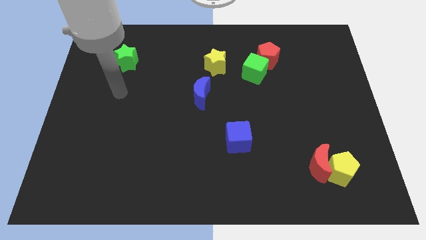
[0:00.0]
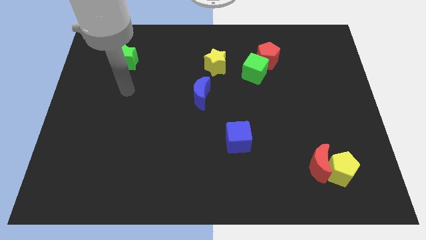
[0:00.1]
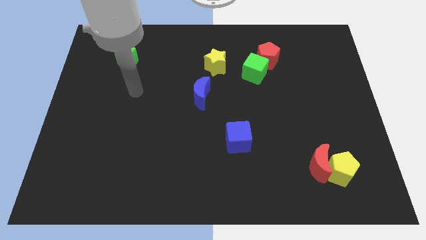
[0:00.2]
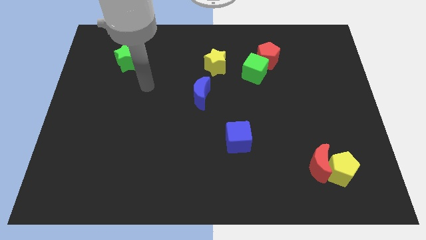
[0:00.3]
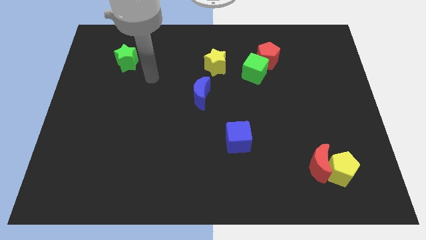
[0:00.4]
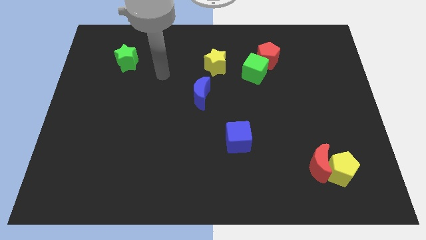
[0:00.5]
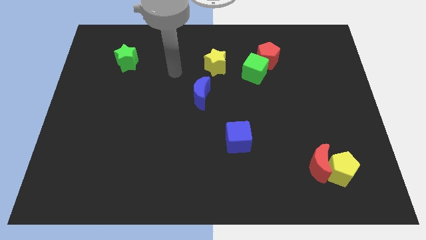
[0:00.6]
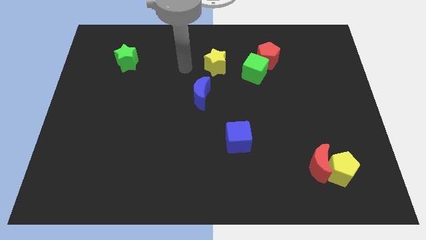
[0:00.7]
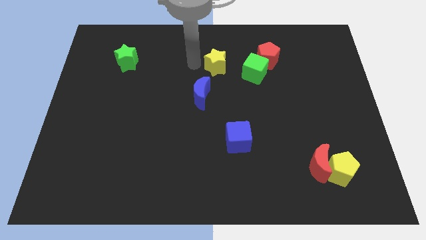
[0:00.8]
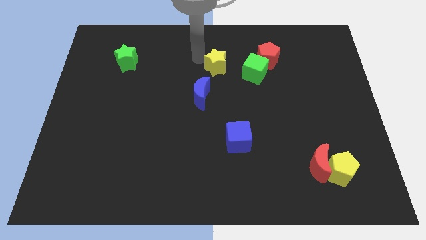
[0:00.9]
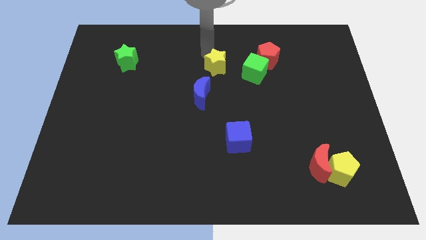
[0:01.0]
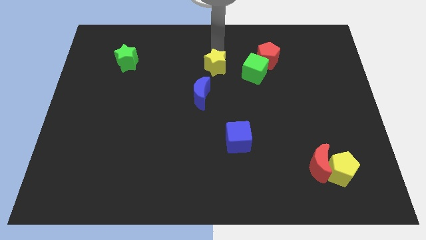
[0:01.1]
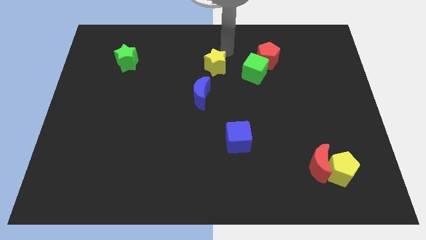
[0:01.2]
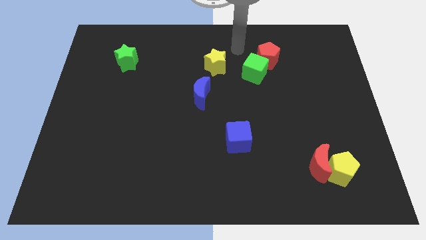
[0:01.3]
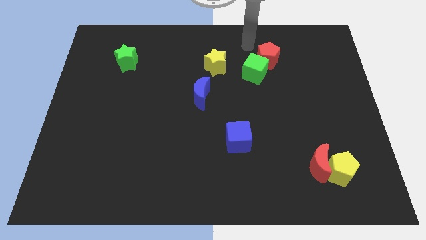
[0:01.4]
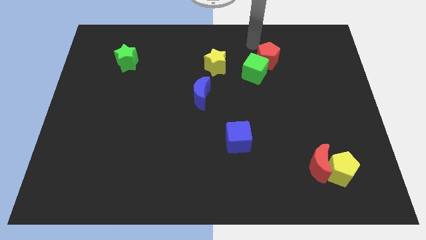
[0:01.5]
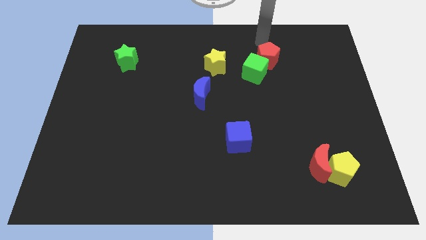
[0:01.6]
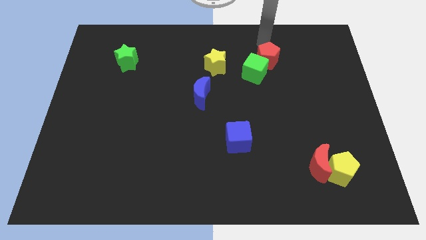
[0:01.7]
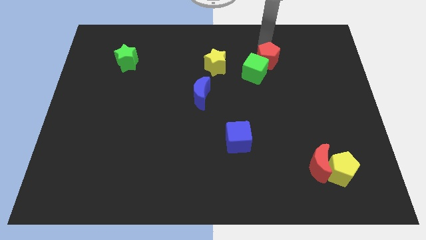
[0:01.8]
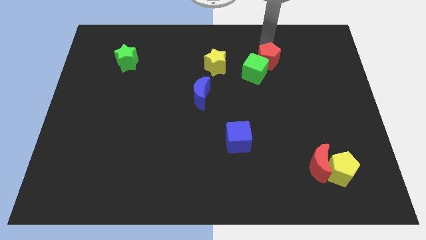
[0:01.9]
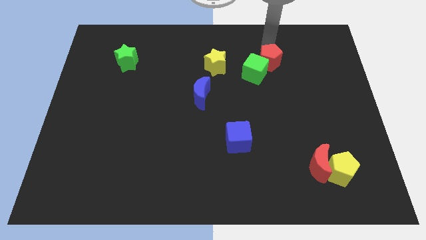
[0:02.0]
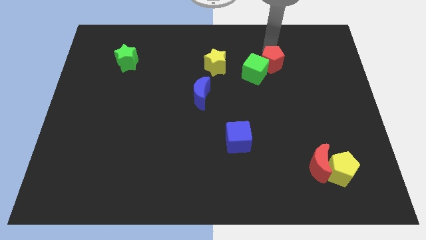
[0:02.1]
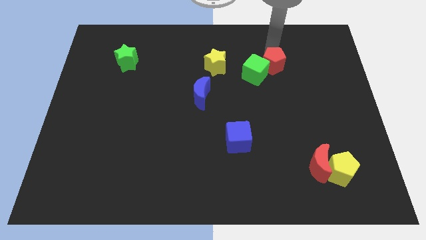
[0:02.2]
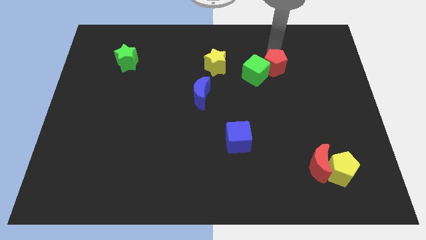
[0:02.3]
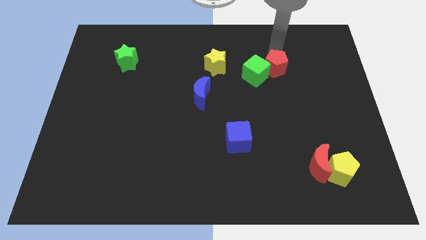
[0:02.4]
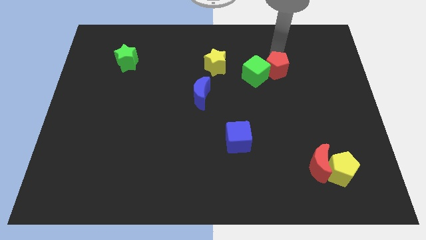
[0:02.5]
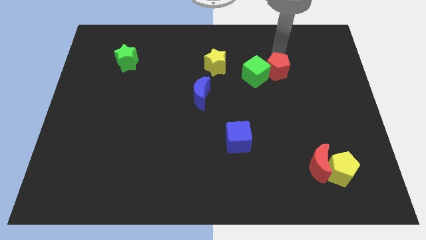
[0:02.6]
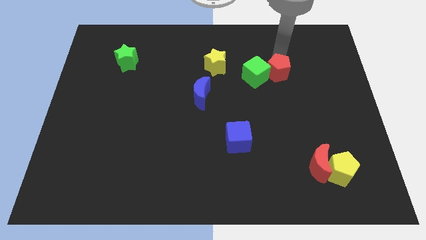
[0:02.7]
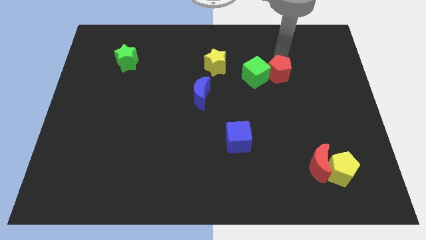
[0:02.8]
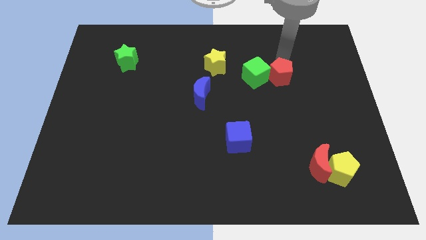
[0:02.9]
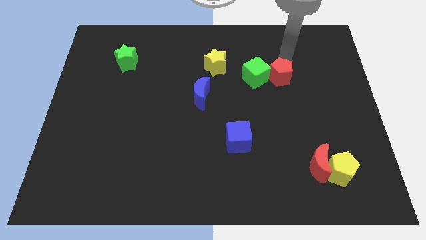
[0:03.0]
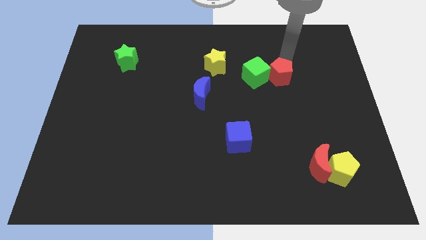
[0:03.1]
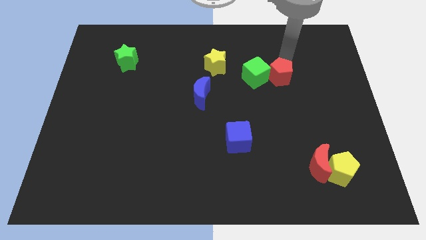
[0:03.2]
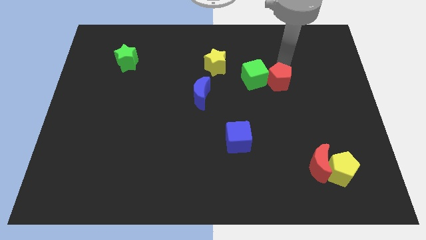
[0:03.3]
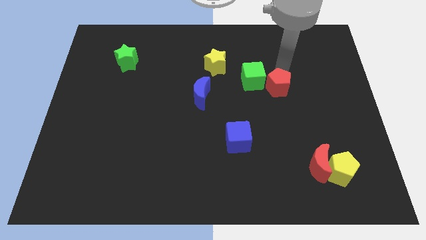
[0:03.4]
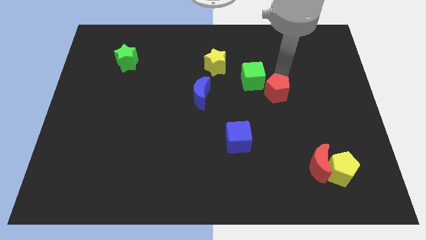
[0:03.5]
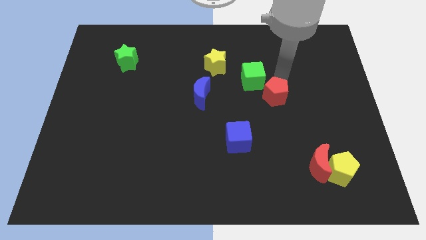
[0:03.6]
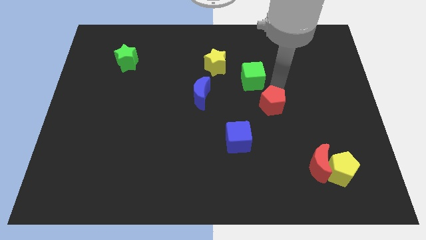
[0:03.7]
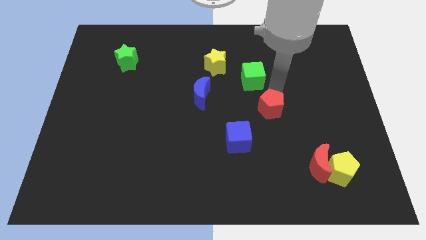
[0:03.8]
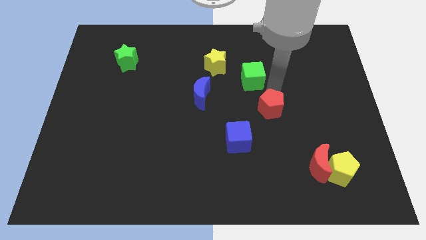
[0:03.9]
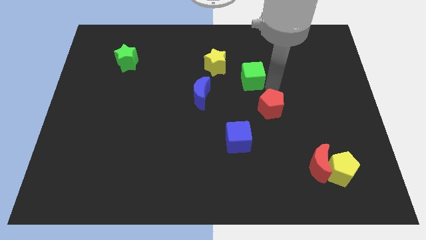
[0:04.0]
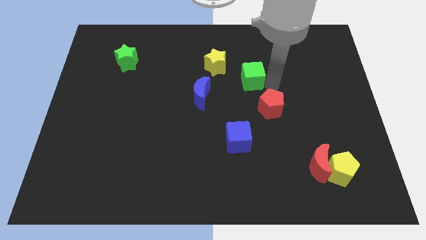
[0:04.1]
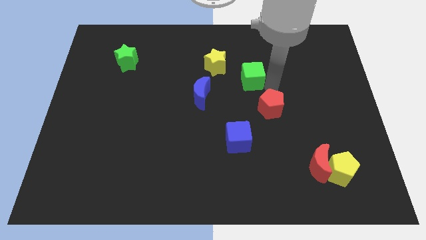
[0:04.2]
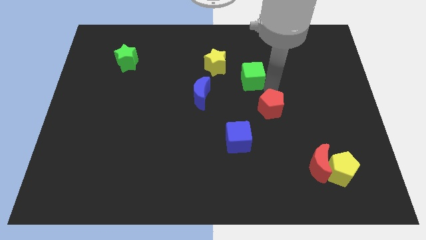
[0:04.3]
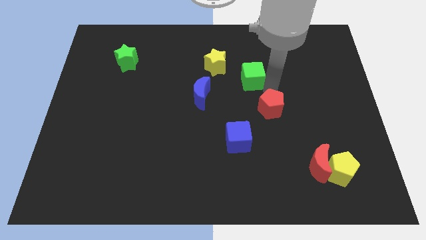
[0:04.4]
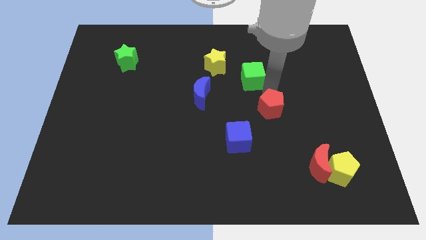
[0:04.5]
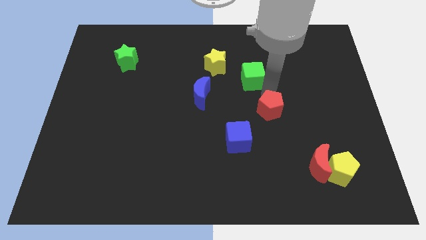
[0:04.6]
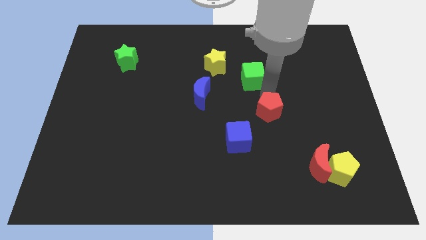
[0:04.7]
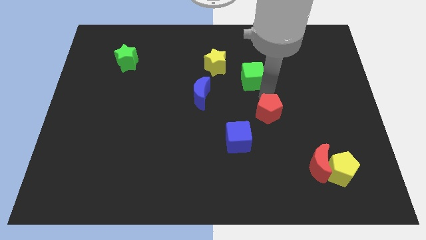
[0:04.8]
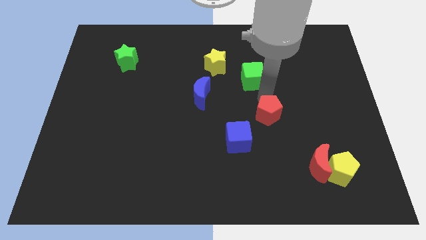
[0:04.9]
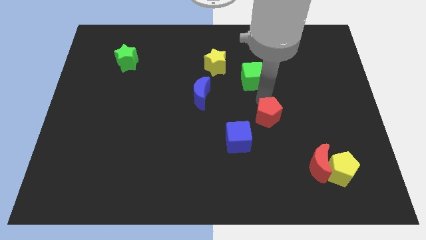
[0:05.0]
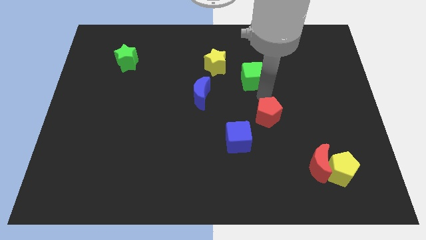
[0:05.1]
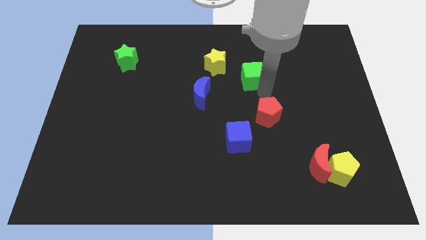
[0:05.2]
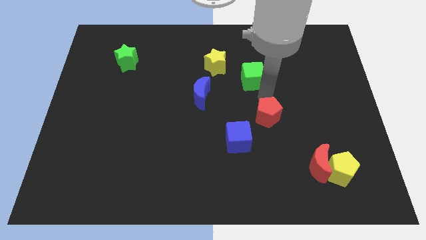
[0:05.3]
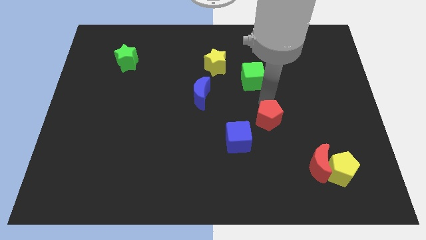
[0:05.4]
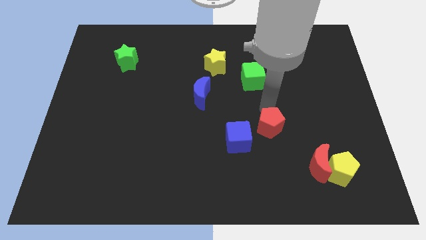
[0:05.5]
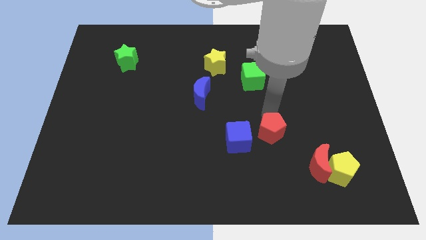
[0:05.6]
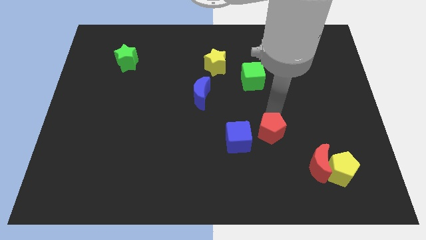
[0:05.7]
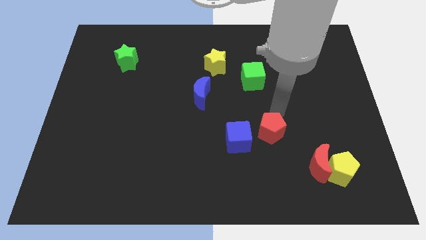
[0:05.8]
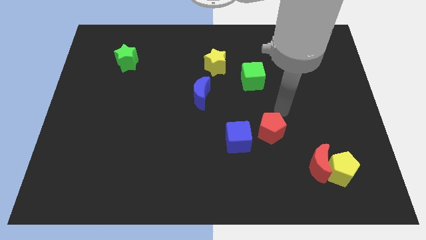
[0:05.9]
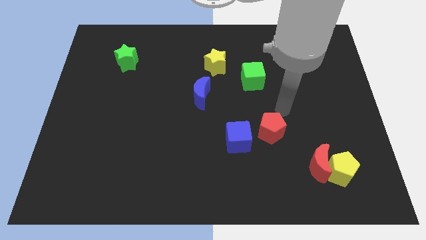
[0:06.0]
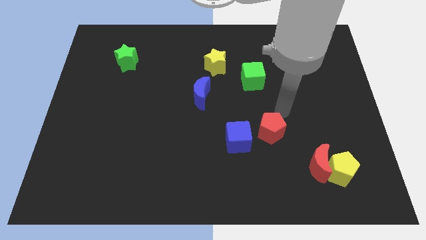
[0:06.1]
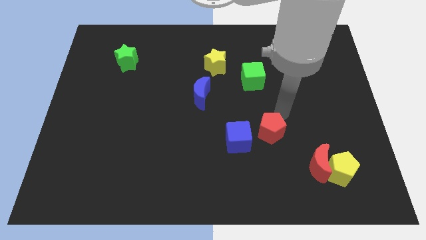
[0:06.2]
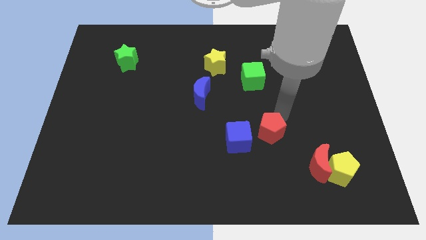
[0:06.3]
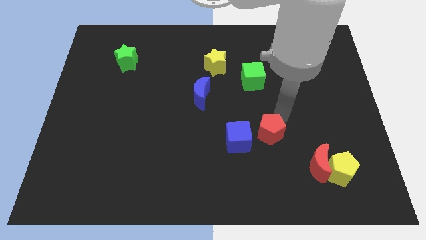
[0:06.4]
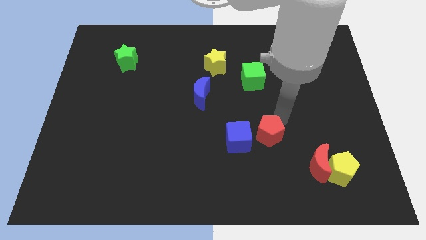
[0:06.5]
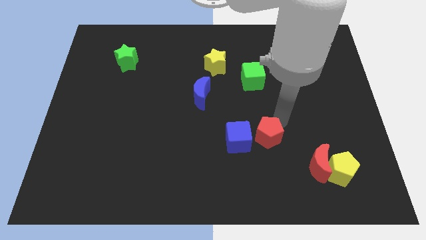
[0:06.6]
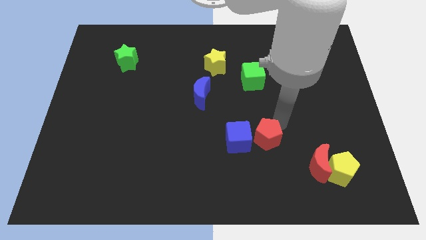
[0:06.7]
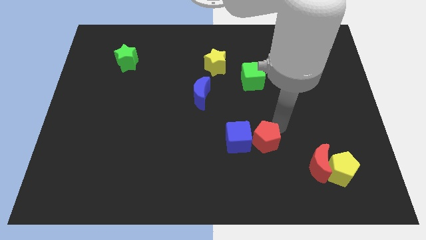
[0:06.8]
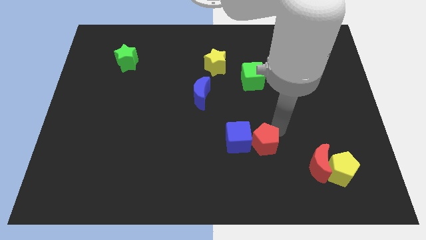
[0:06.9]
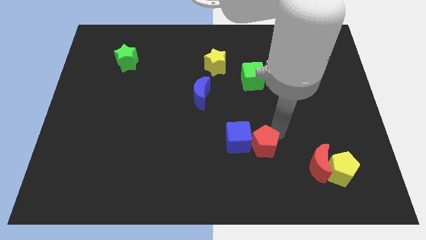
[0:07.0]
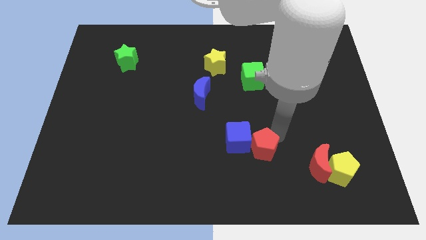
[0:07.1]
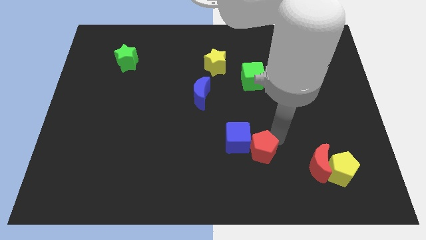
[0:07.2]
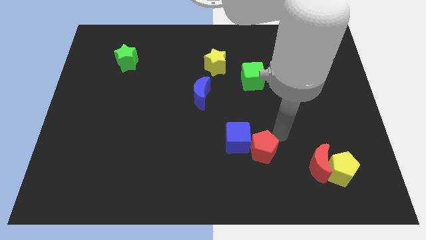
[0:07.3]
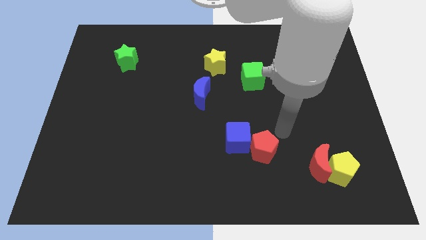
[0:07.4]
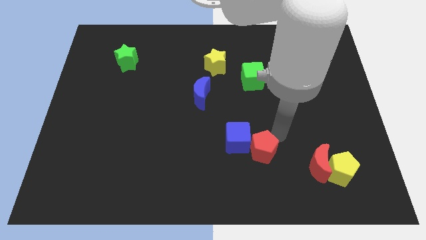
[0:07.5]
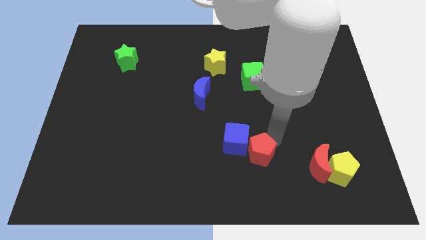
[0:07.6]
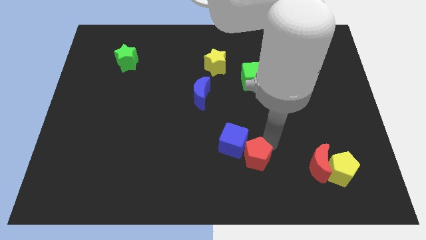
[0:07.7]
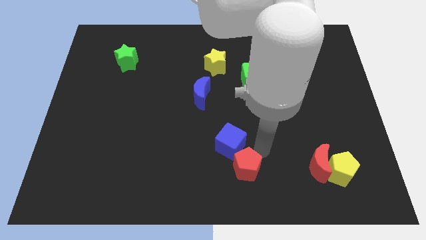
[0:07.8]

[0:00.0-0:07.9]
put the red pentagon to the bottom side
